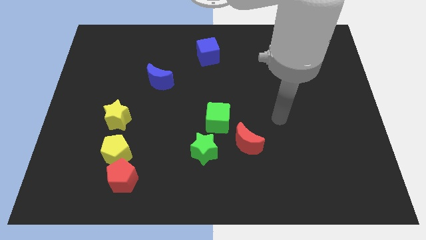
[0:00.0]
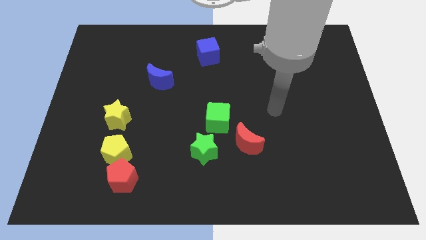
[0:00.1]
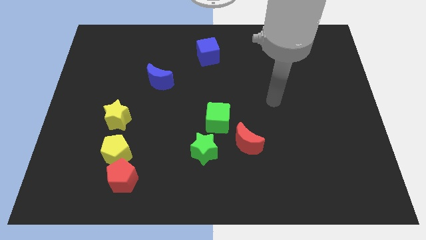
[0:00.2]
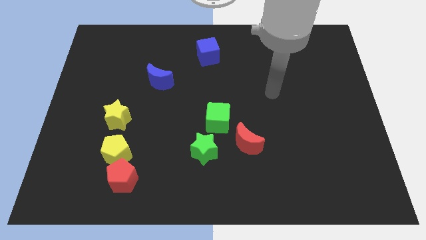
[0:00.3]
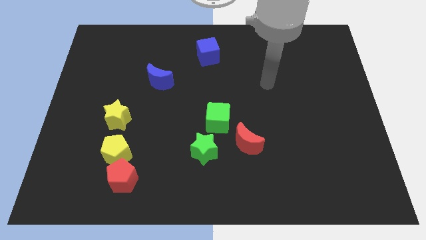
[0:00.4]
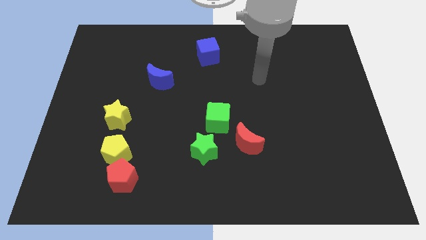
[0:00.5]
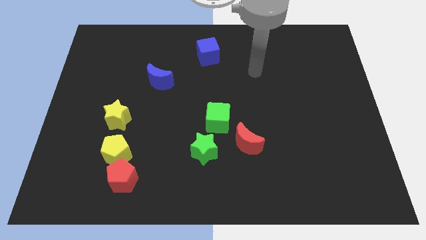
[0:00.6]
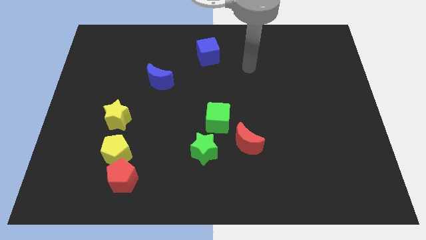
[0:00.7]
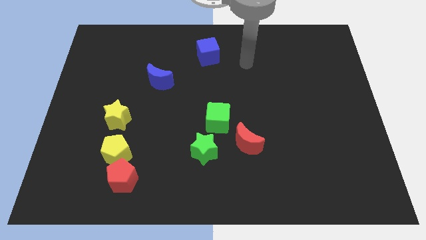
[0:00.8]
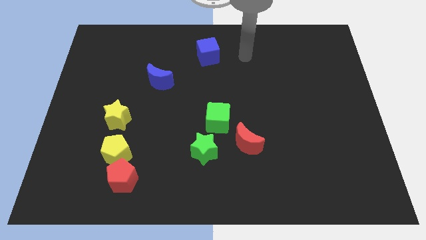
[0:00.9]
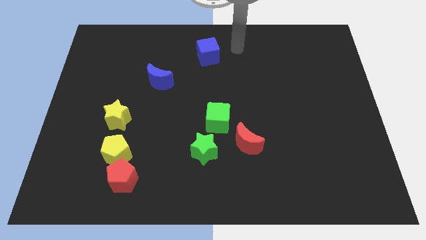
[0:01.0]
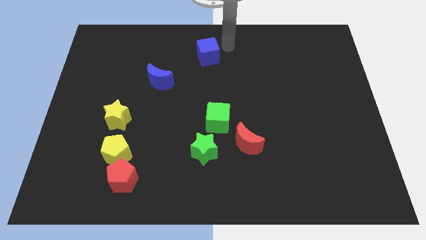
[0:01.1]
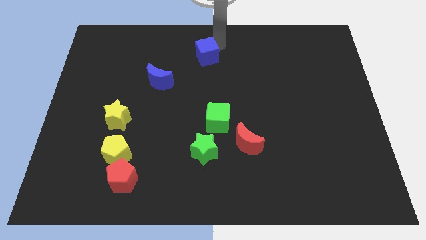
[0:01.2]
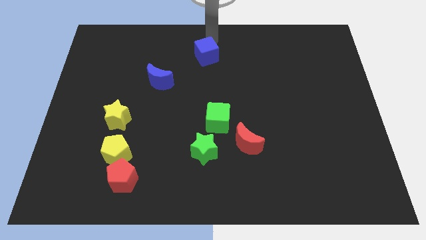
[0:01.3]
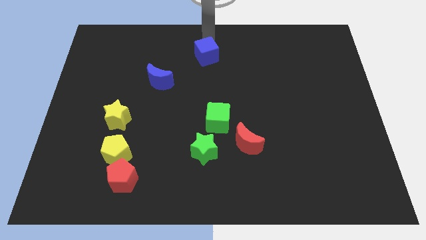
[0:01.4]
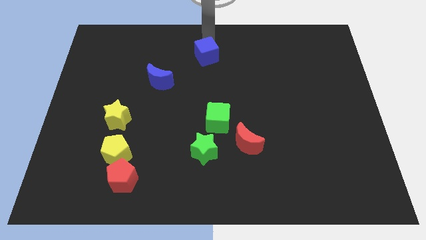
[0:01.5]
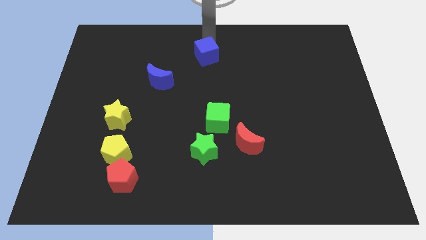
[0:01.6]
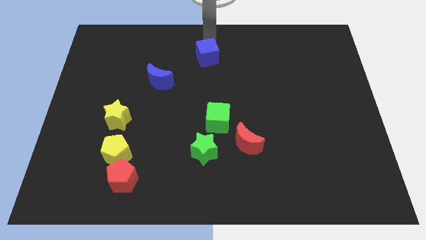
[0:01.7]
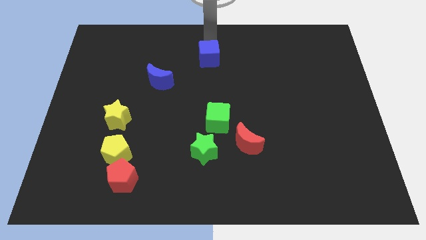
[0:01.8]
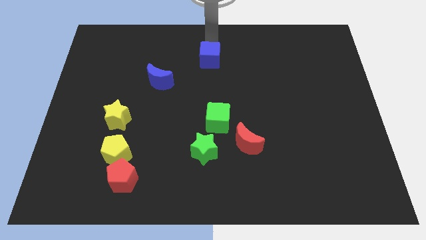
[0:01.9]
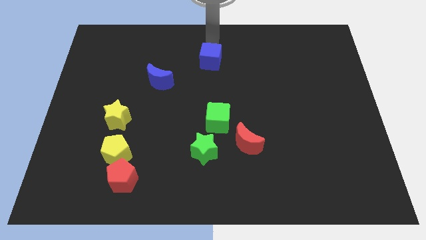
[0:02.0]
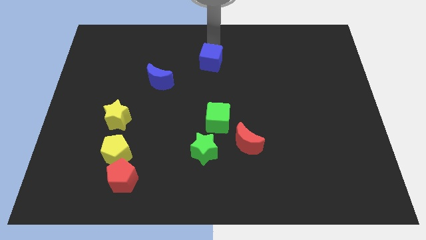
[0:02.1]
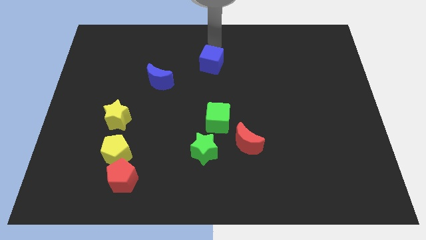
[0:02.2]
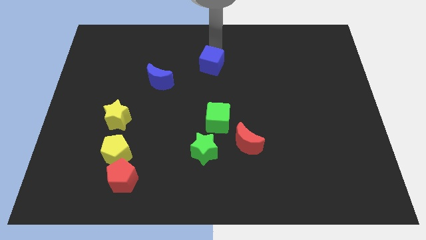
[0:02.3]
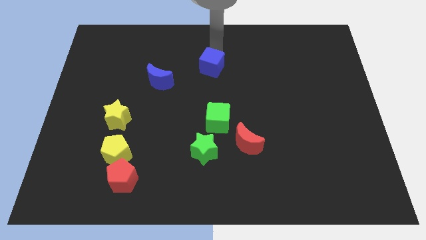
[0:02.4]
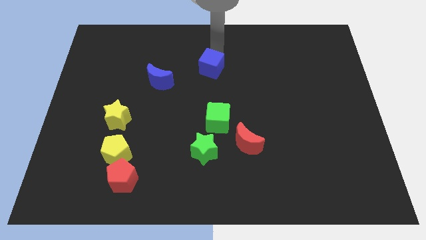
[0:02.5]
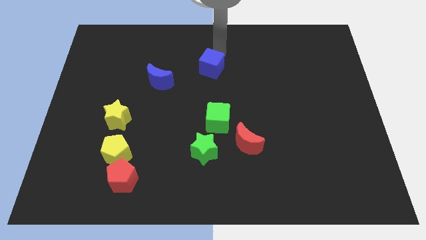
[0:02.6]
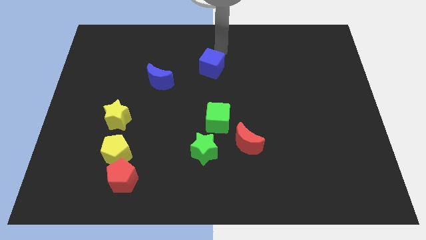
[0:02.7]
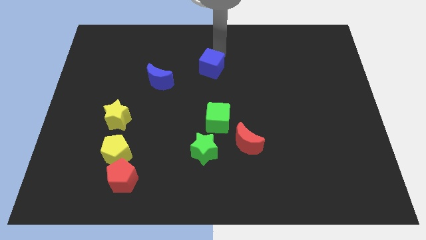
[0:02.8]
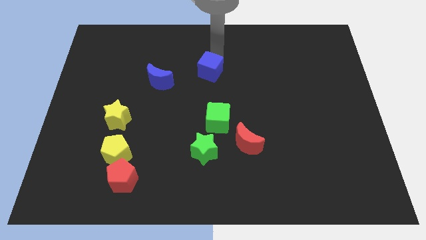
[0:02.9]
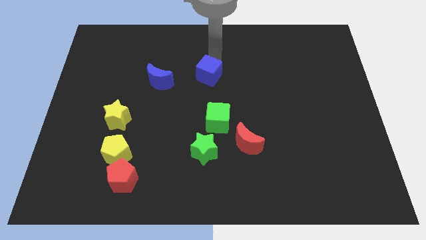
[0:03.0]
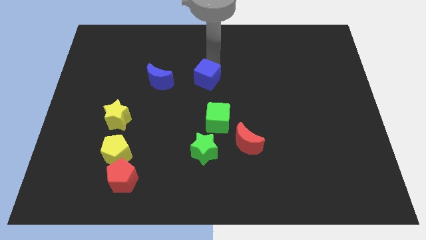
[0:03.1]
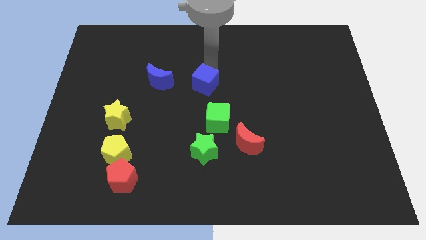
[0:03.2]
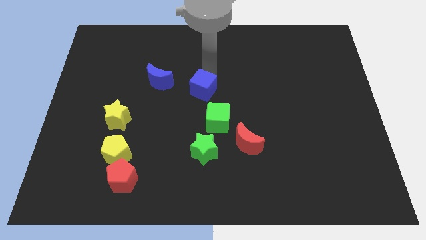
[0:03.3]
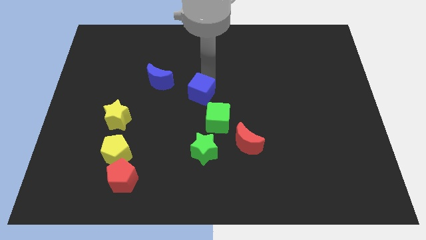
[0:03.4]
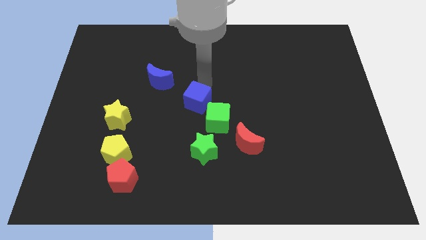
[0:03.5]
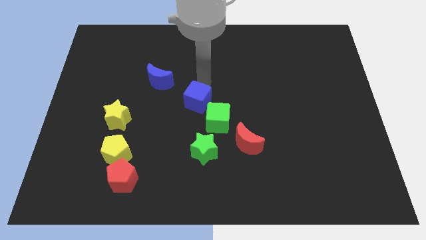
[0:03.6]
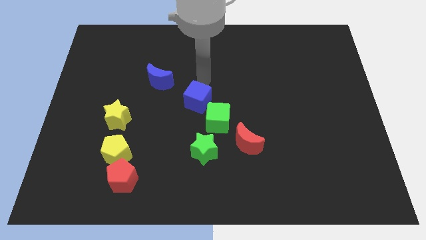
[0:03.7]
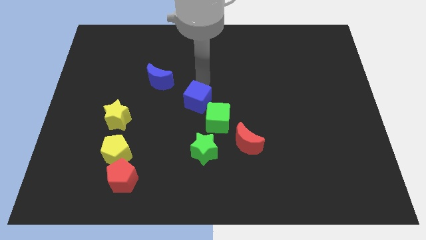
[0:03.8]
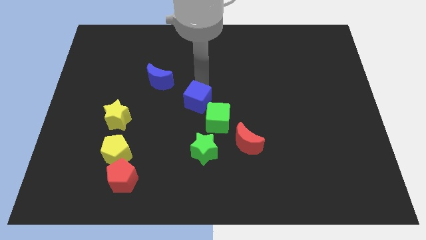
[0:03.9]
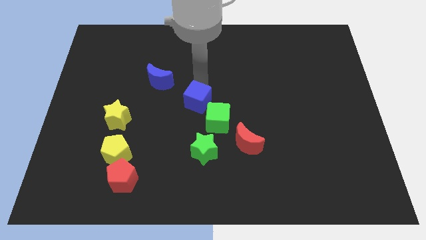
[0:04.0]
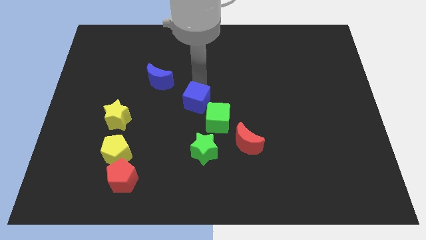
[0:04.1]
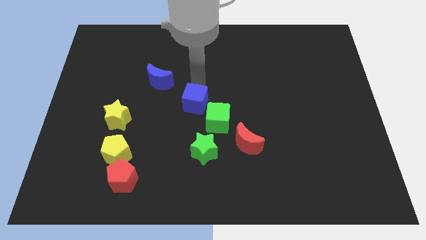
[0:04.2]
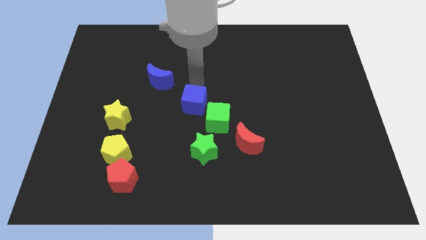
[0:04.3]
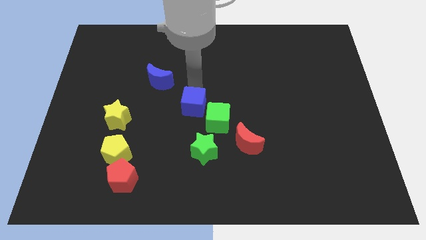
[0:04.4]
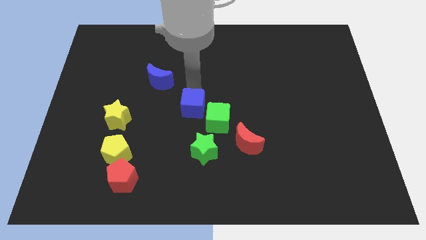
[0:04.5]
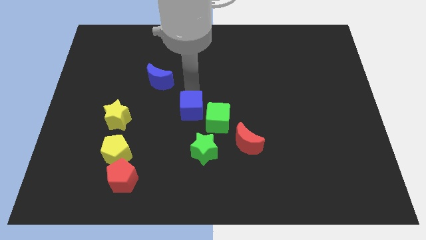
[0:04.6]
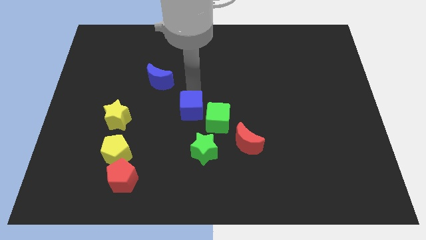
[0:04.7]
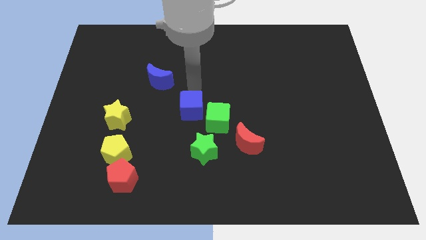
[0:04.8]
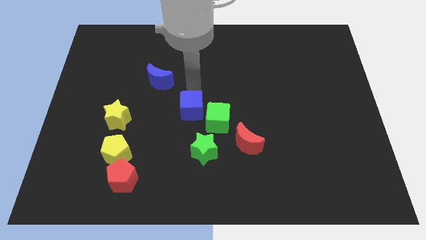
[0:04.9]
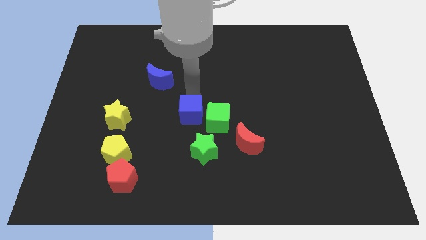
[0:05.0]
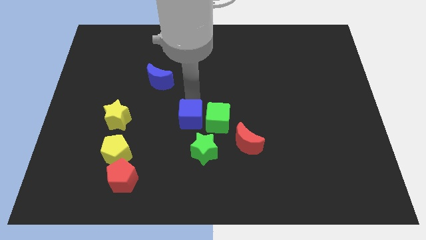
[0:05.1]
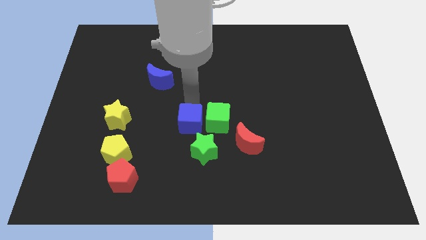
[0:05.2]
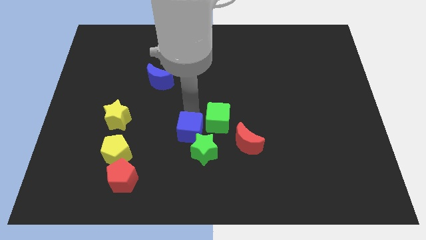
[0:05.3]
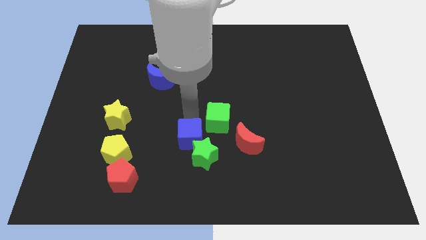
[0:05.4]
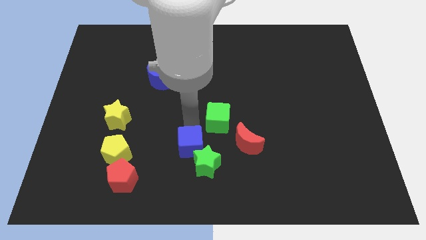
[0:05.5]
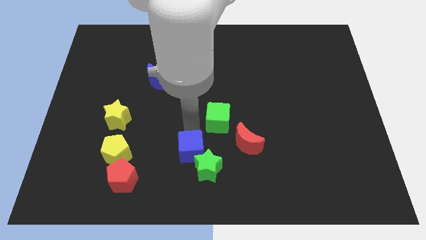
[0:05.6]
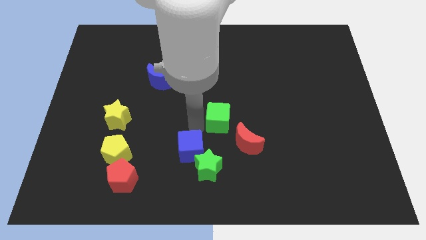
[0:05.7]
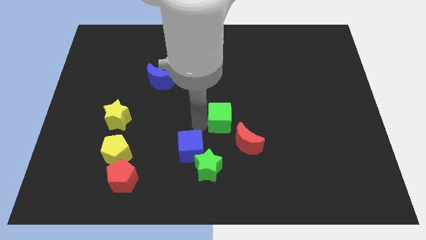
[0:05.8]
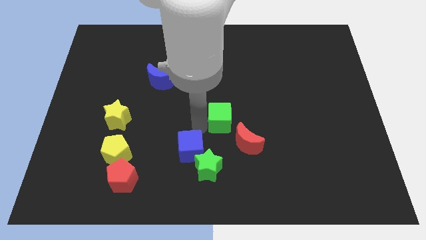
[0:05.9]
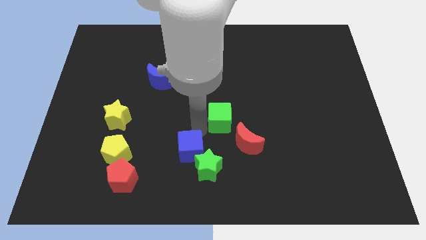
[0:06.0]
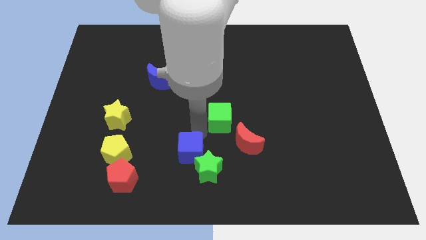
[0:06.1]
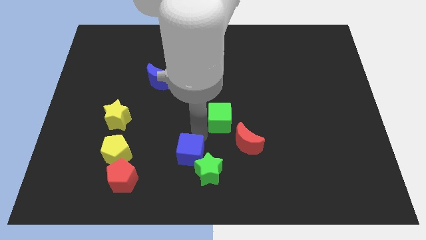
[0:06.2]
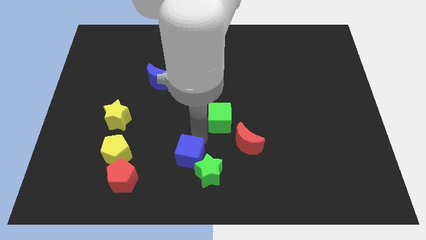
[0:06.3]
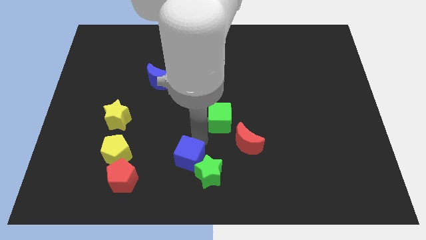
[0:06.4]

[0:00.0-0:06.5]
slide the blue cube to the bottom
